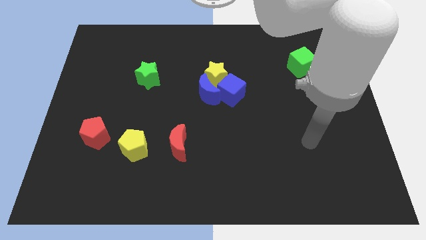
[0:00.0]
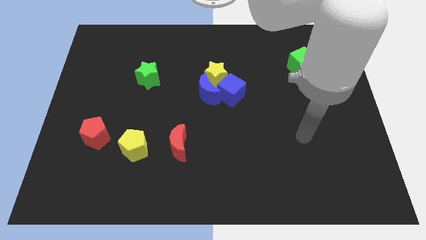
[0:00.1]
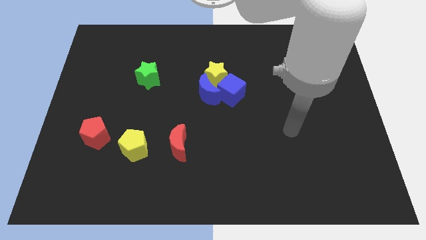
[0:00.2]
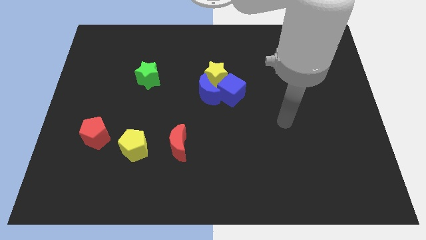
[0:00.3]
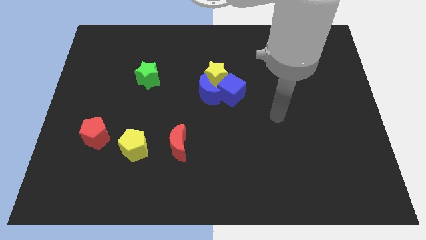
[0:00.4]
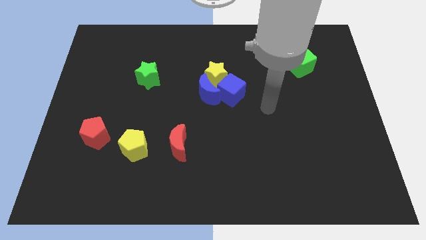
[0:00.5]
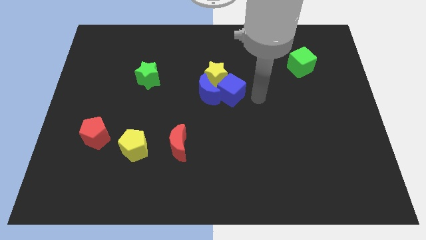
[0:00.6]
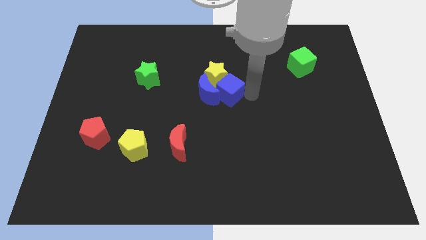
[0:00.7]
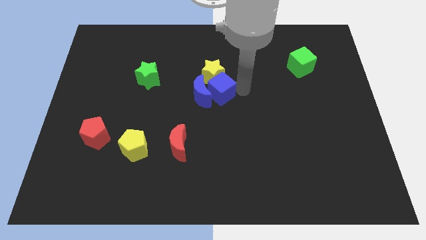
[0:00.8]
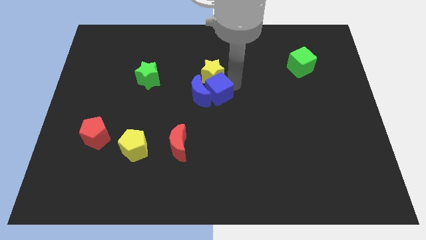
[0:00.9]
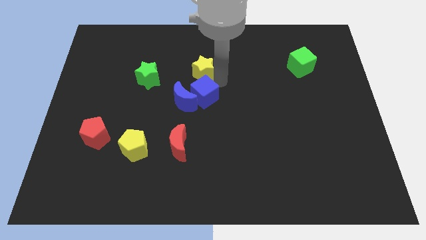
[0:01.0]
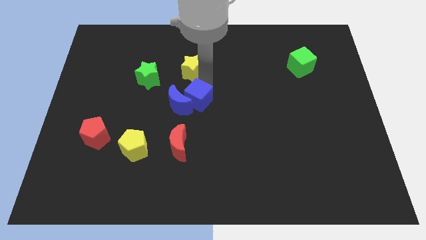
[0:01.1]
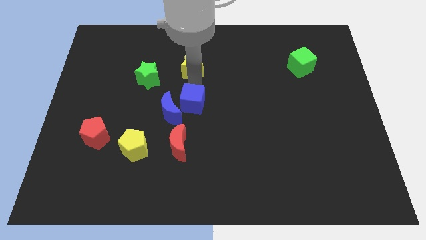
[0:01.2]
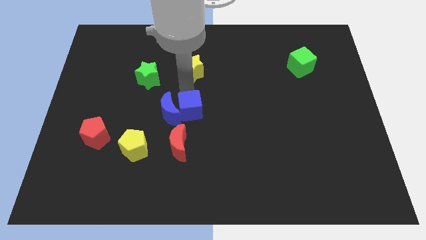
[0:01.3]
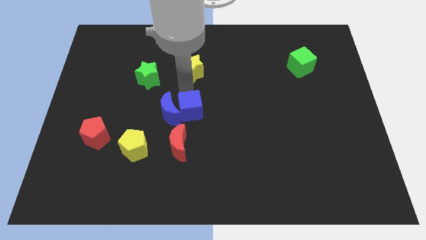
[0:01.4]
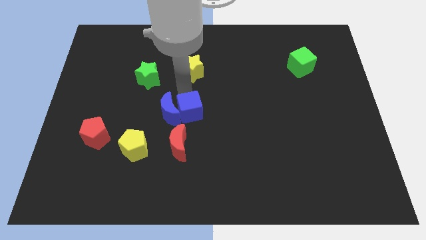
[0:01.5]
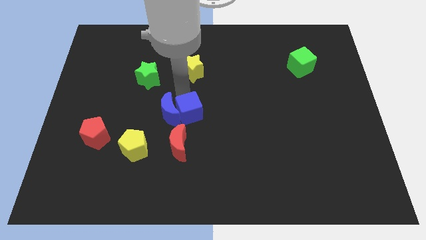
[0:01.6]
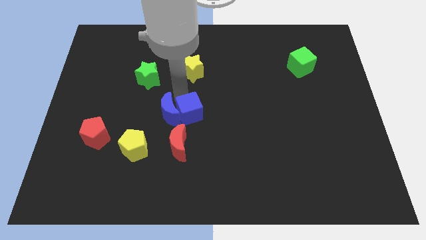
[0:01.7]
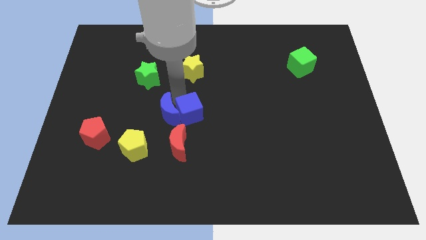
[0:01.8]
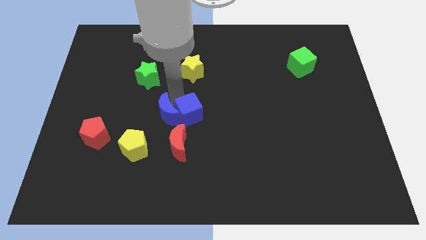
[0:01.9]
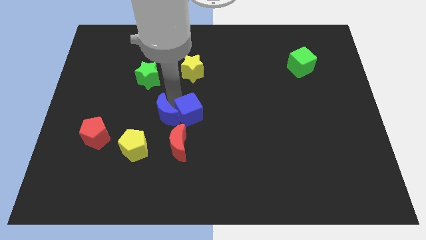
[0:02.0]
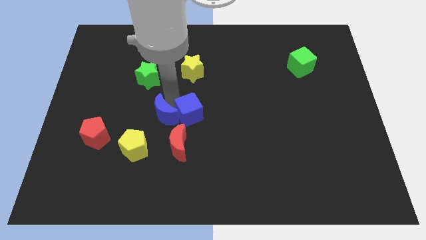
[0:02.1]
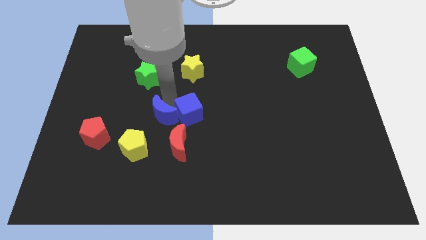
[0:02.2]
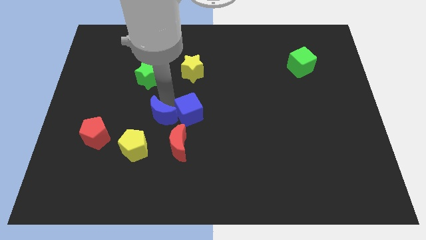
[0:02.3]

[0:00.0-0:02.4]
separate the blue moon from the yellow star and blue cube

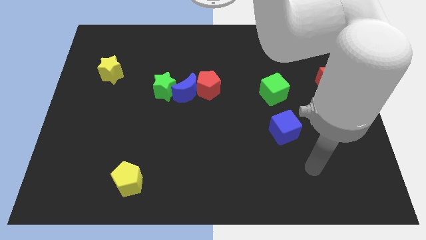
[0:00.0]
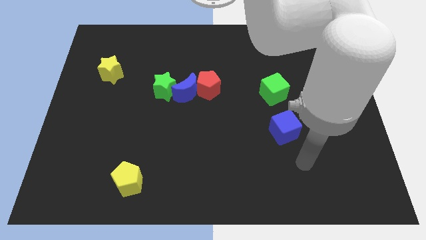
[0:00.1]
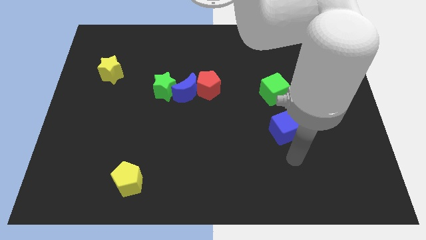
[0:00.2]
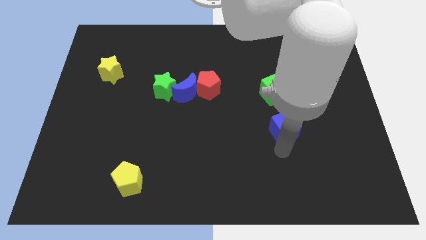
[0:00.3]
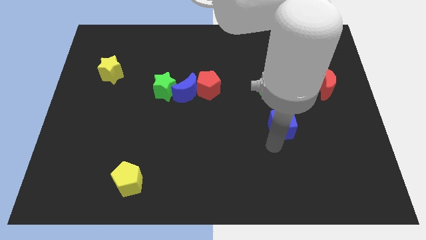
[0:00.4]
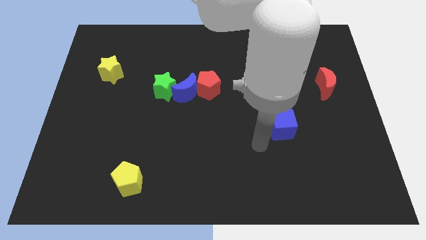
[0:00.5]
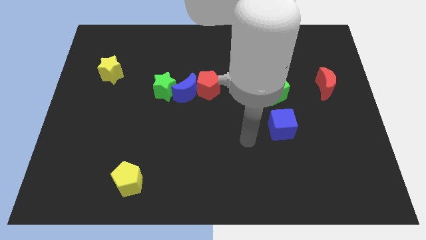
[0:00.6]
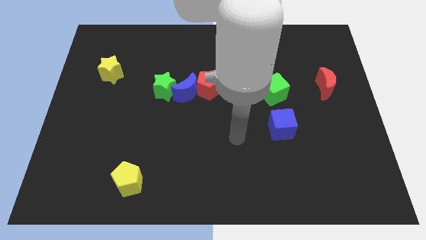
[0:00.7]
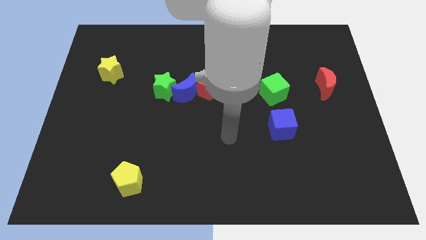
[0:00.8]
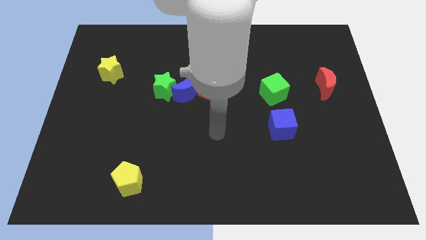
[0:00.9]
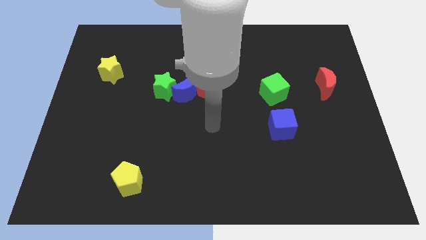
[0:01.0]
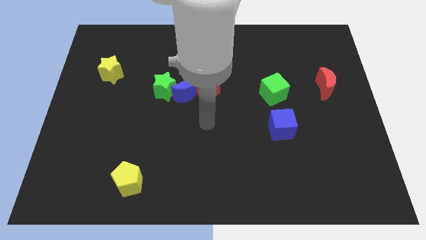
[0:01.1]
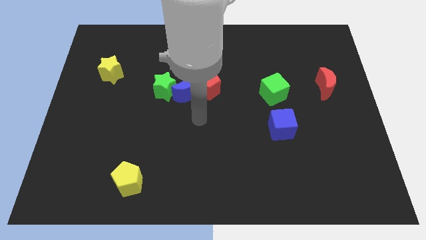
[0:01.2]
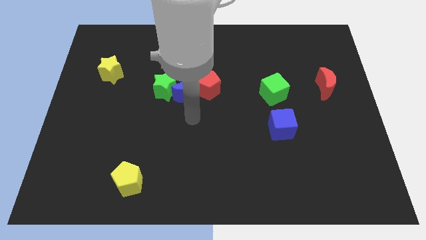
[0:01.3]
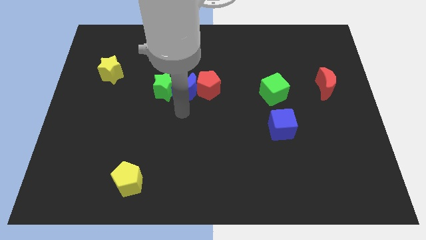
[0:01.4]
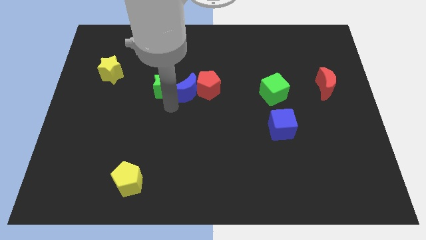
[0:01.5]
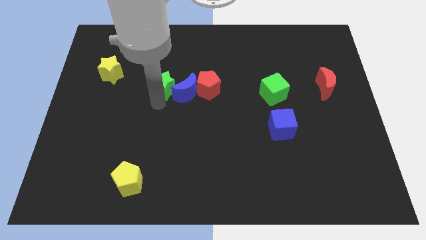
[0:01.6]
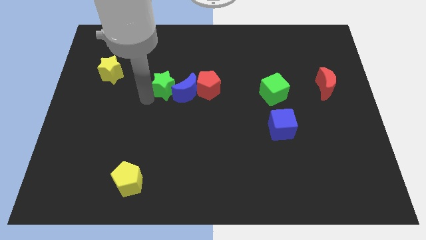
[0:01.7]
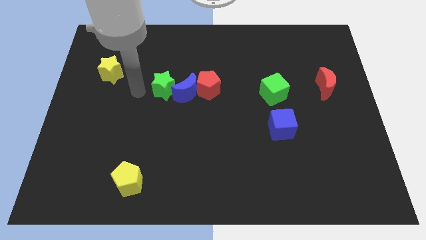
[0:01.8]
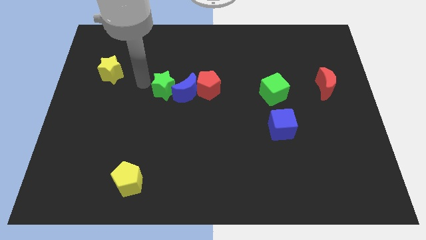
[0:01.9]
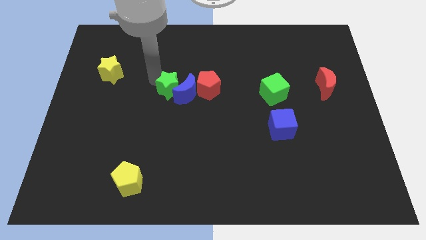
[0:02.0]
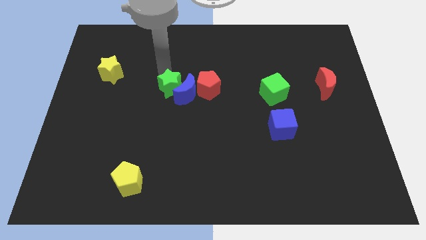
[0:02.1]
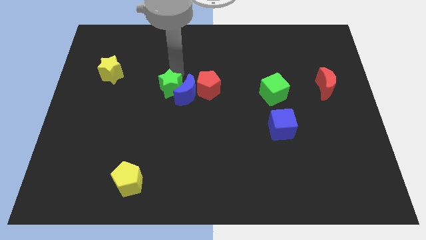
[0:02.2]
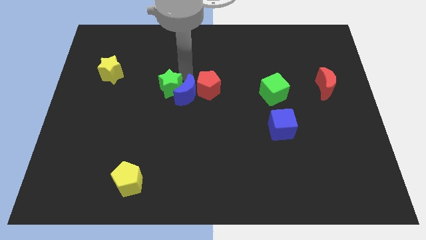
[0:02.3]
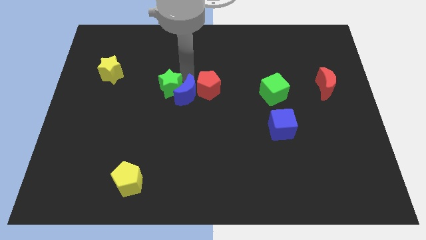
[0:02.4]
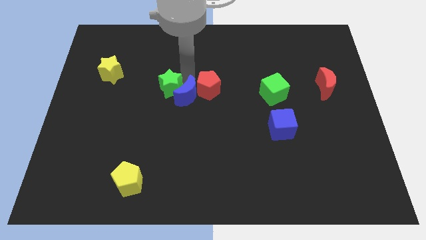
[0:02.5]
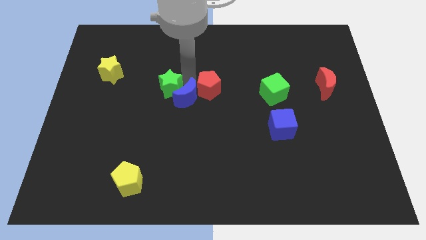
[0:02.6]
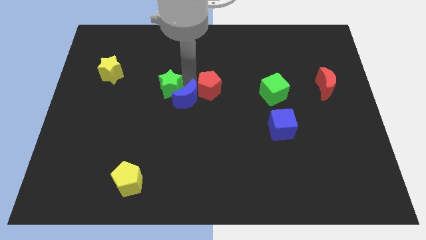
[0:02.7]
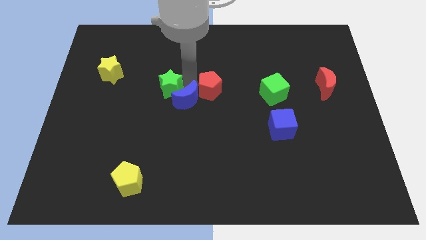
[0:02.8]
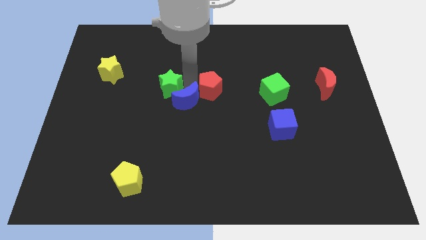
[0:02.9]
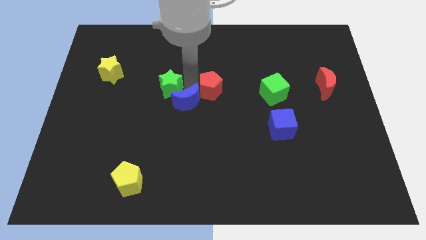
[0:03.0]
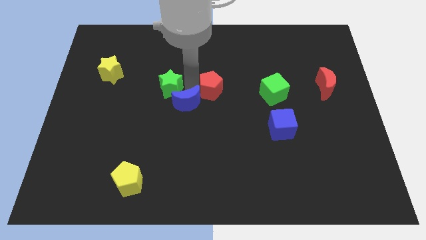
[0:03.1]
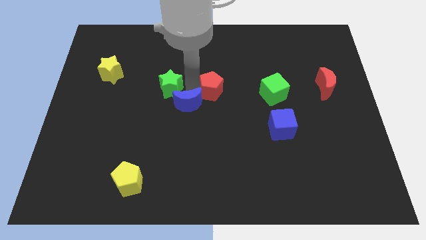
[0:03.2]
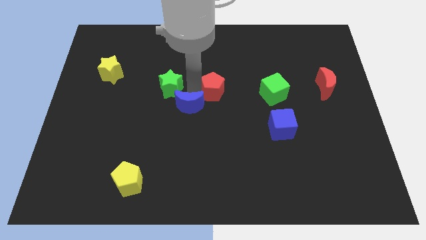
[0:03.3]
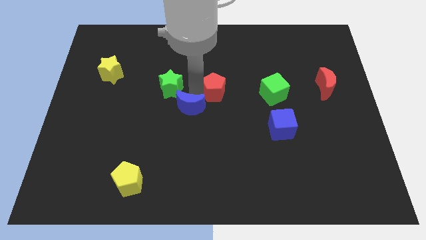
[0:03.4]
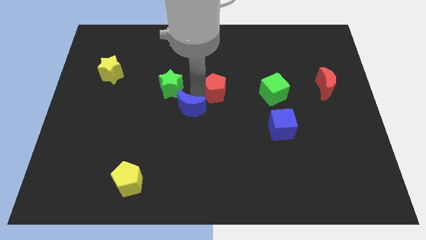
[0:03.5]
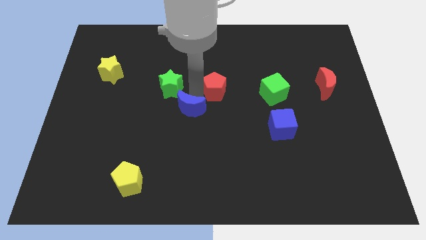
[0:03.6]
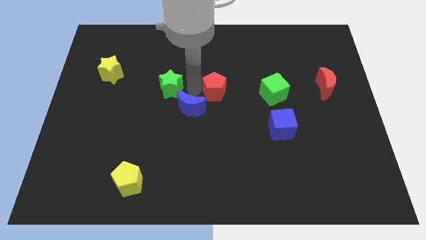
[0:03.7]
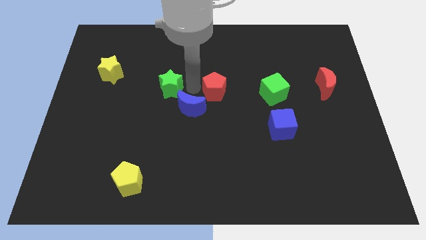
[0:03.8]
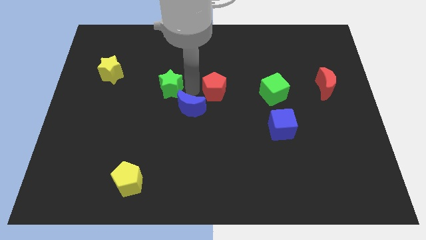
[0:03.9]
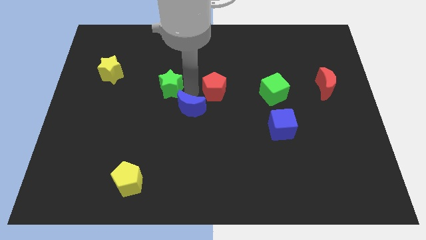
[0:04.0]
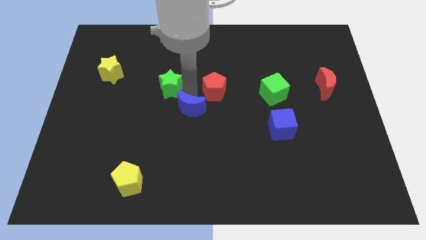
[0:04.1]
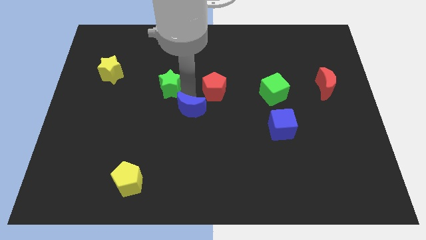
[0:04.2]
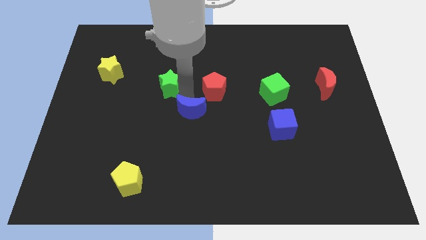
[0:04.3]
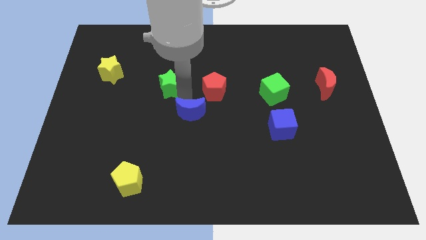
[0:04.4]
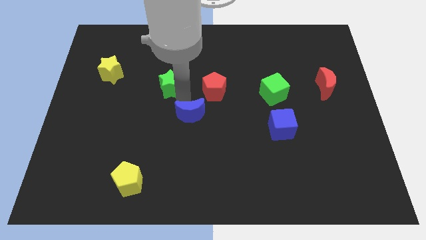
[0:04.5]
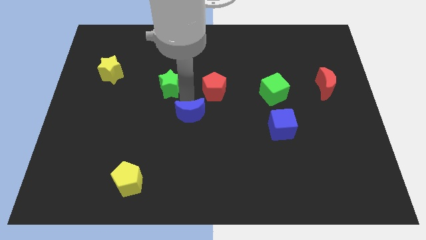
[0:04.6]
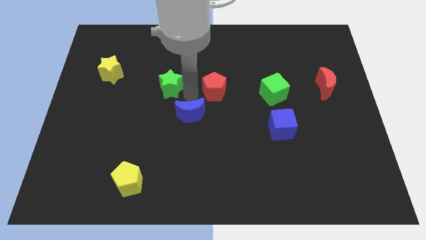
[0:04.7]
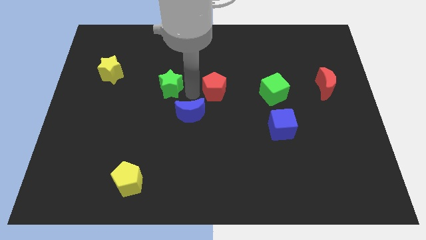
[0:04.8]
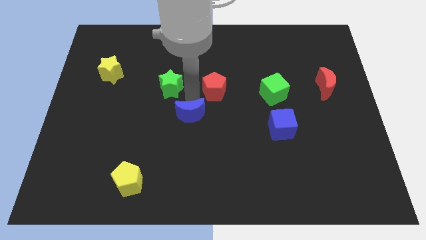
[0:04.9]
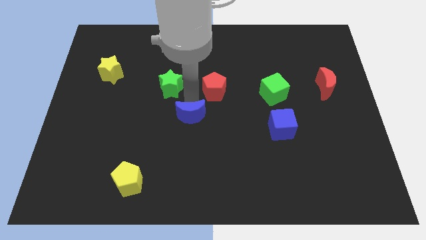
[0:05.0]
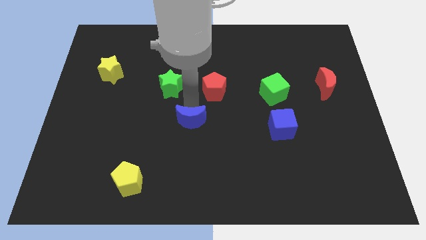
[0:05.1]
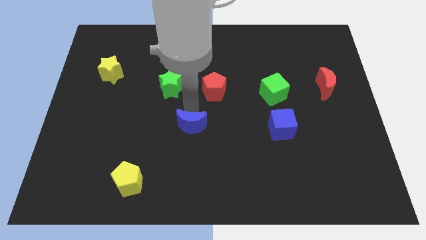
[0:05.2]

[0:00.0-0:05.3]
pull the blue moon apart from the red pentagon and green star

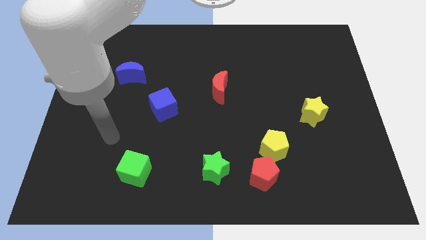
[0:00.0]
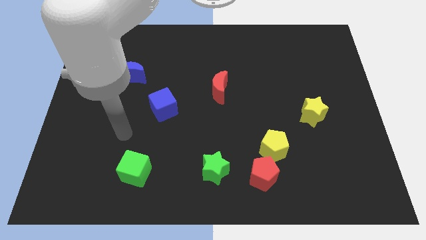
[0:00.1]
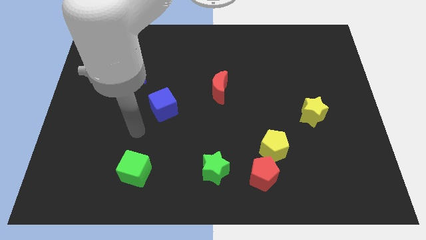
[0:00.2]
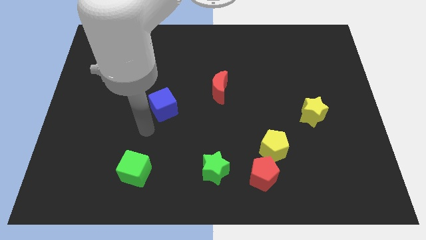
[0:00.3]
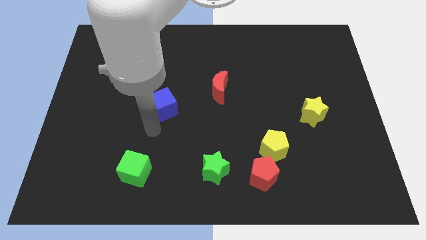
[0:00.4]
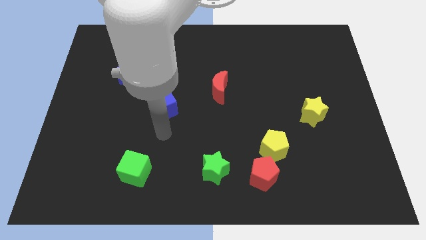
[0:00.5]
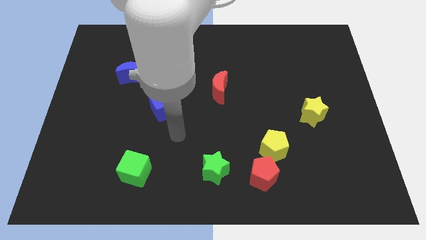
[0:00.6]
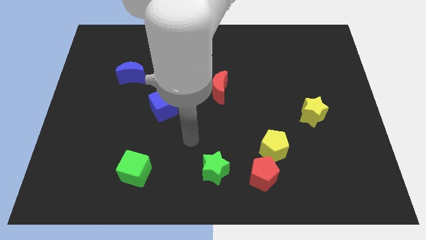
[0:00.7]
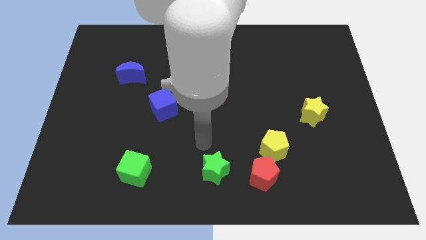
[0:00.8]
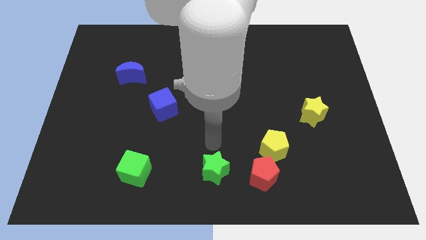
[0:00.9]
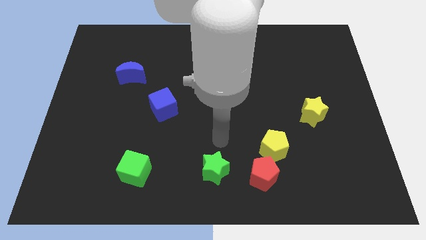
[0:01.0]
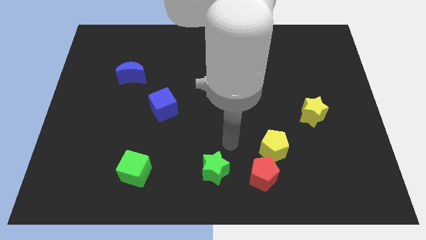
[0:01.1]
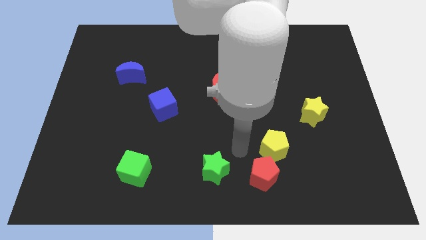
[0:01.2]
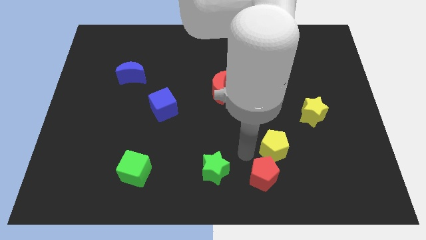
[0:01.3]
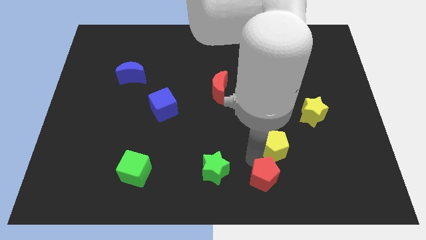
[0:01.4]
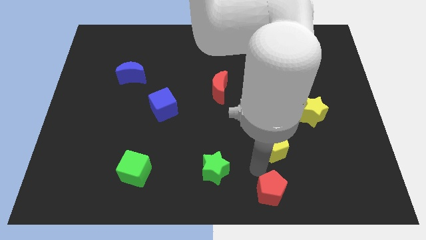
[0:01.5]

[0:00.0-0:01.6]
pull the yellow pentagon apart from the red pentagon
